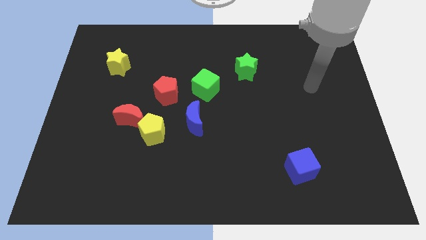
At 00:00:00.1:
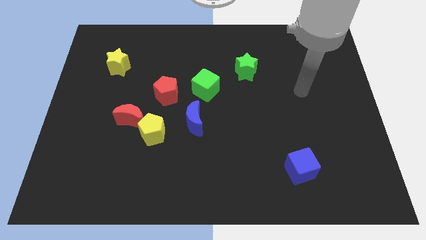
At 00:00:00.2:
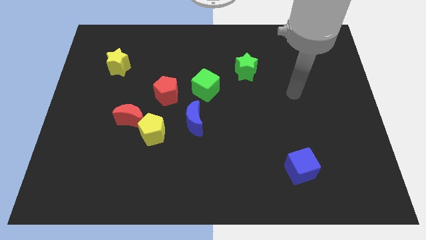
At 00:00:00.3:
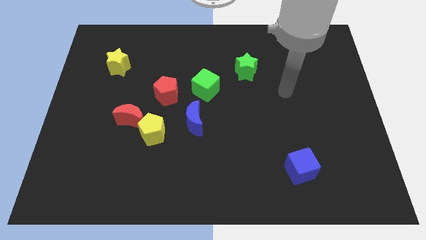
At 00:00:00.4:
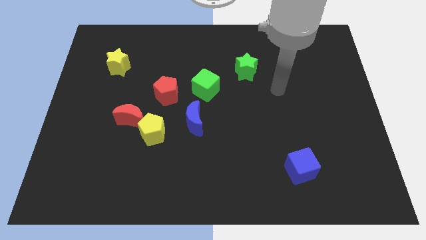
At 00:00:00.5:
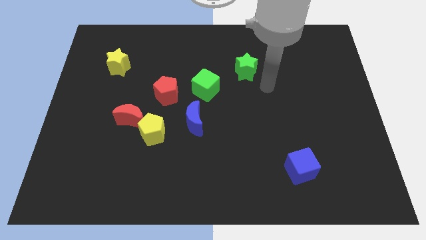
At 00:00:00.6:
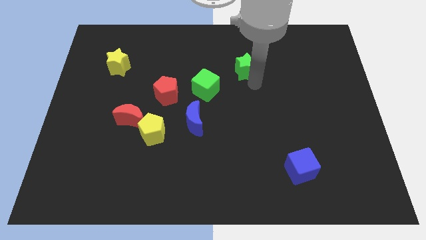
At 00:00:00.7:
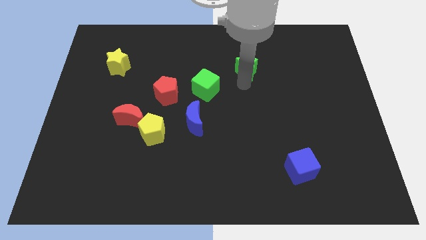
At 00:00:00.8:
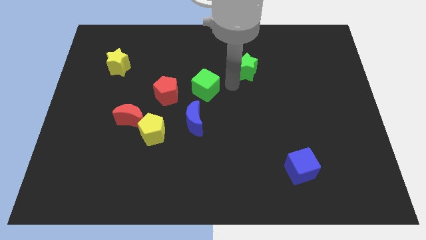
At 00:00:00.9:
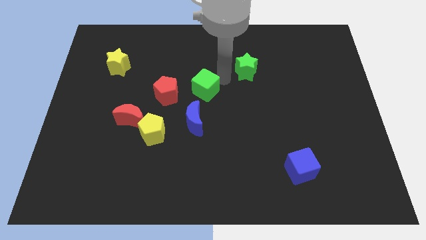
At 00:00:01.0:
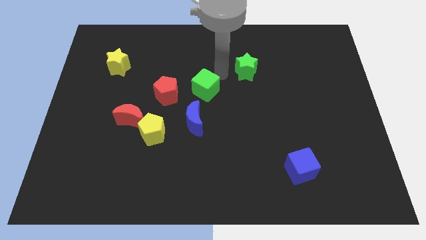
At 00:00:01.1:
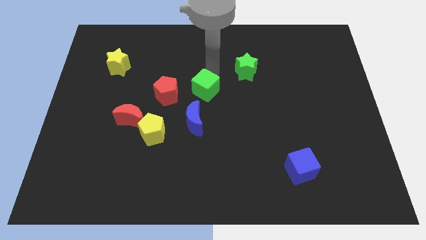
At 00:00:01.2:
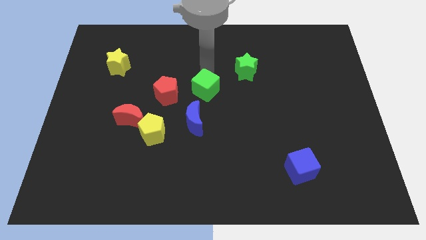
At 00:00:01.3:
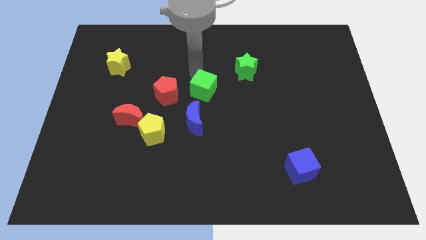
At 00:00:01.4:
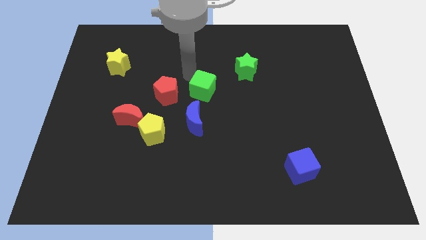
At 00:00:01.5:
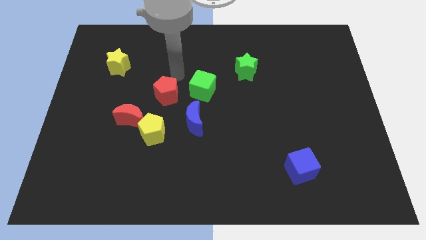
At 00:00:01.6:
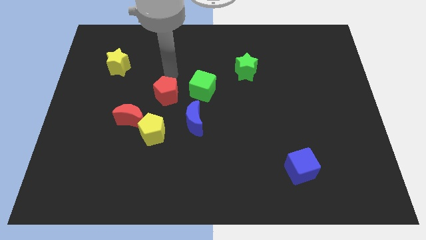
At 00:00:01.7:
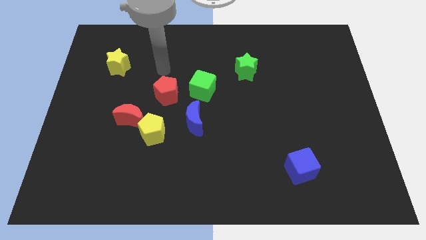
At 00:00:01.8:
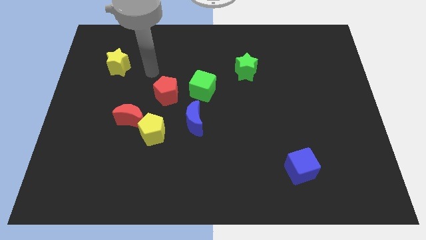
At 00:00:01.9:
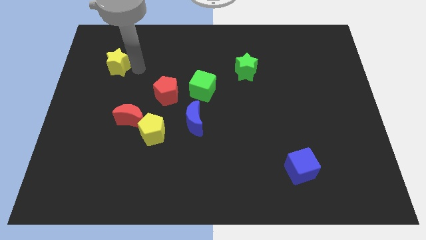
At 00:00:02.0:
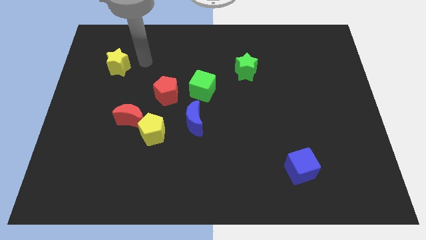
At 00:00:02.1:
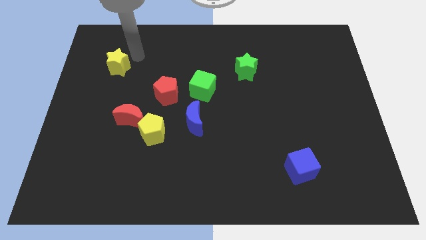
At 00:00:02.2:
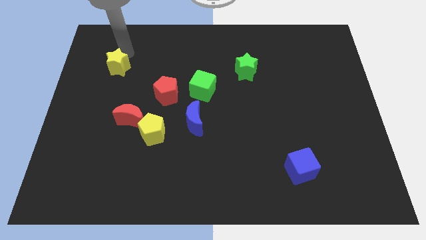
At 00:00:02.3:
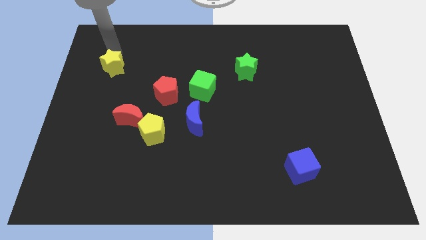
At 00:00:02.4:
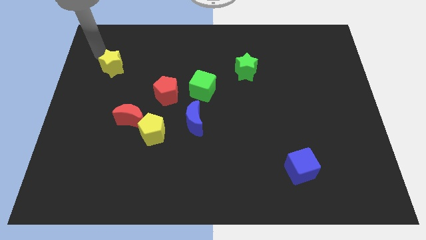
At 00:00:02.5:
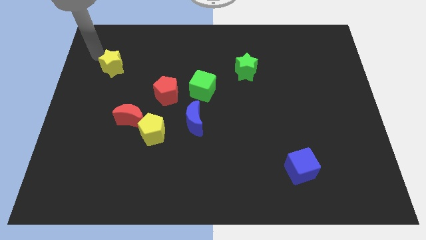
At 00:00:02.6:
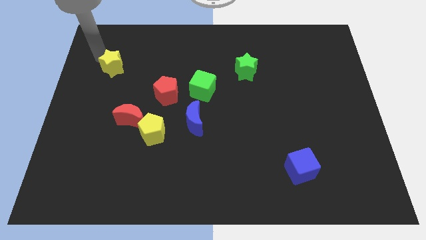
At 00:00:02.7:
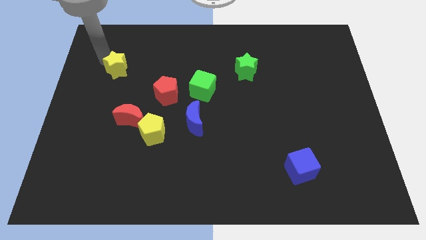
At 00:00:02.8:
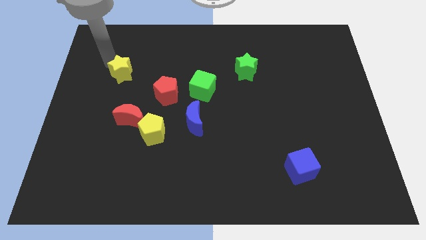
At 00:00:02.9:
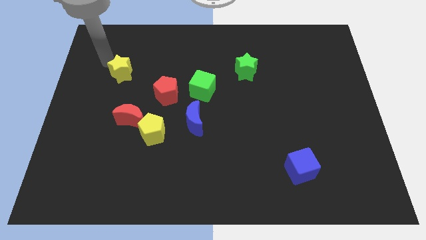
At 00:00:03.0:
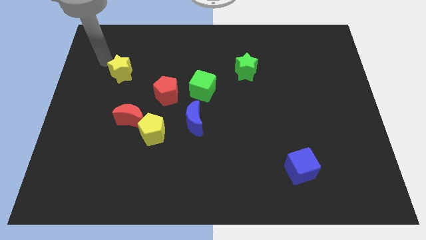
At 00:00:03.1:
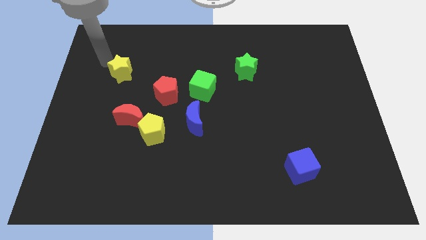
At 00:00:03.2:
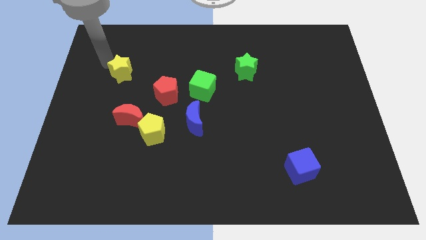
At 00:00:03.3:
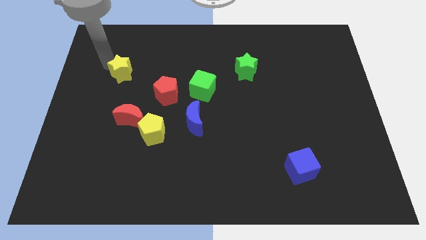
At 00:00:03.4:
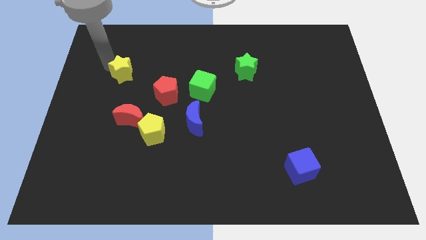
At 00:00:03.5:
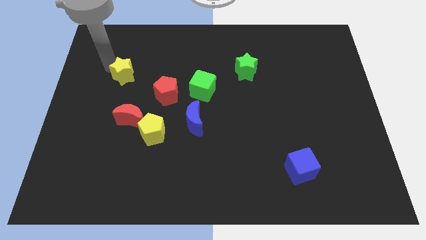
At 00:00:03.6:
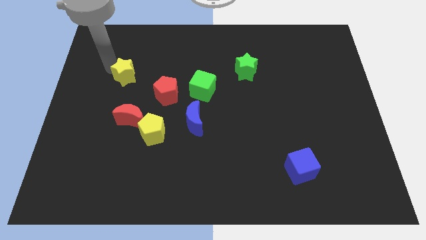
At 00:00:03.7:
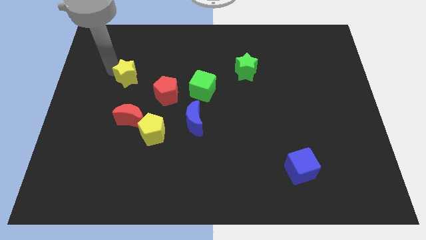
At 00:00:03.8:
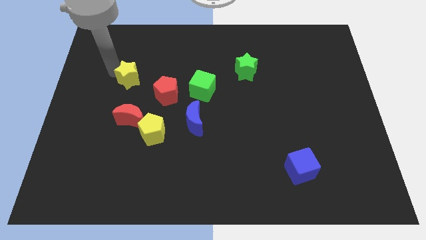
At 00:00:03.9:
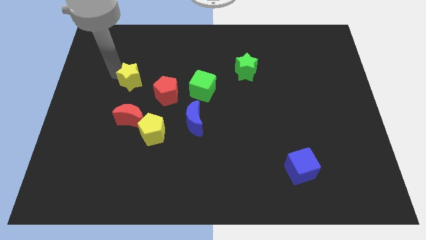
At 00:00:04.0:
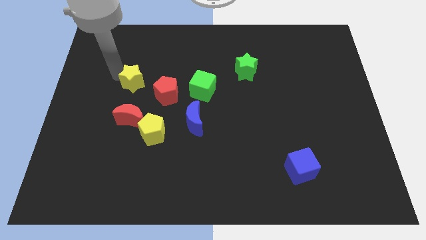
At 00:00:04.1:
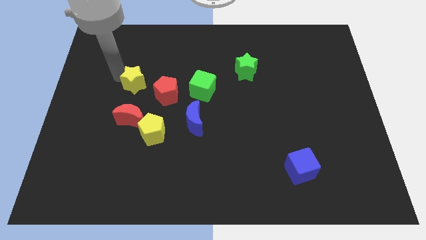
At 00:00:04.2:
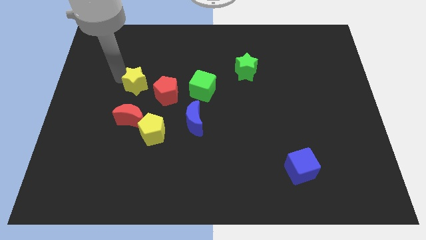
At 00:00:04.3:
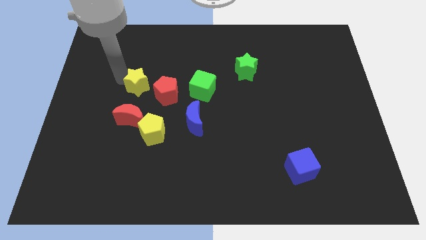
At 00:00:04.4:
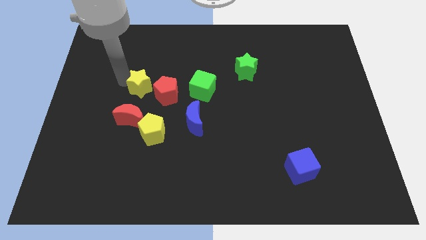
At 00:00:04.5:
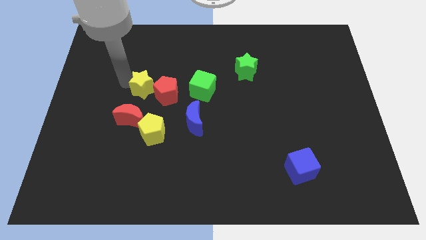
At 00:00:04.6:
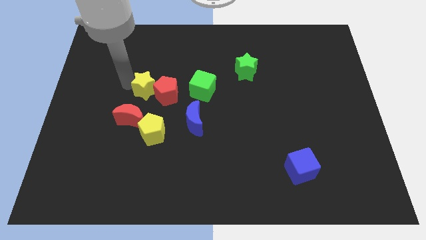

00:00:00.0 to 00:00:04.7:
move the yellow star next to the red pentagon

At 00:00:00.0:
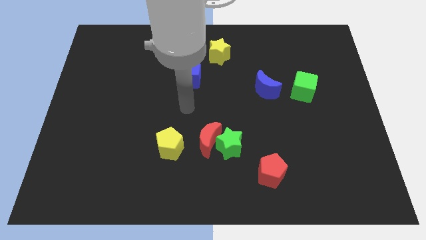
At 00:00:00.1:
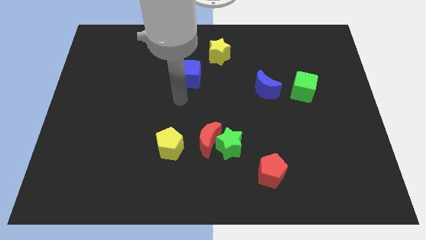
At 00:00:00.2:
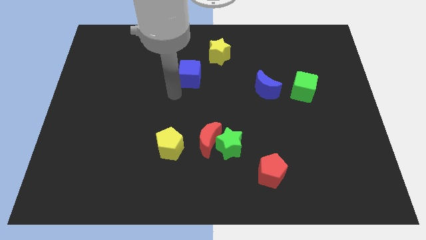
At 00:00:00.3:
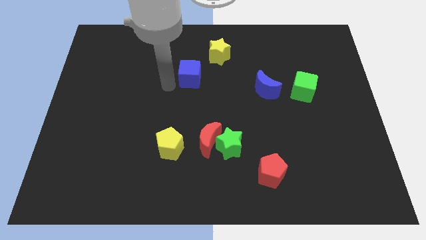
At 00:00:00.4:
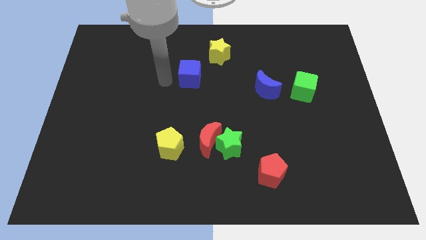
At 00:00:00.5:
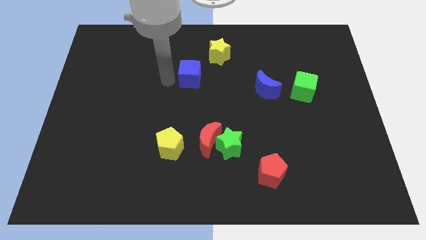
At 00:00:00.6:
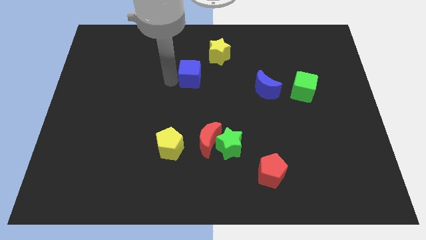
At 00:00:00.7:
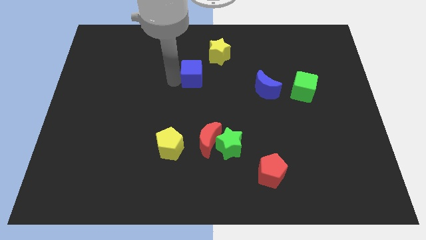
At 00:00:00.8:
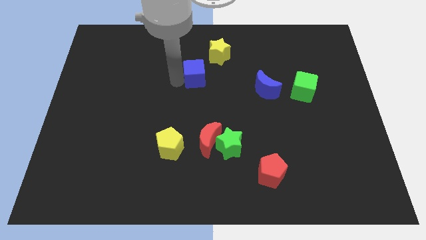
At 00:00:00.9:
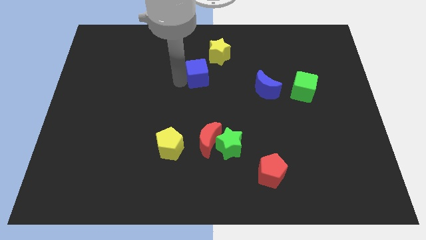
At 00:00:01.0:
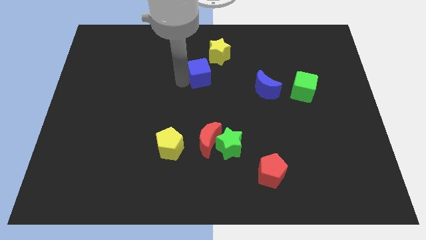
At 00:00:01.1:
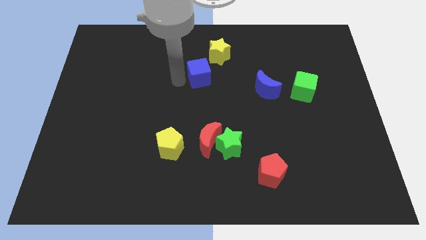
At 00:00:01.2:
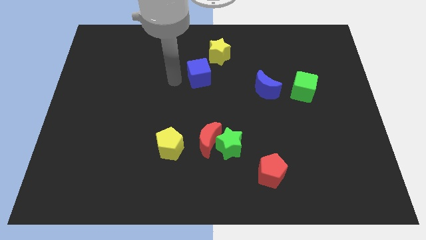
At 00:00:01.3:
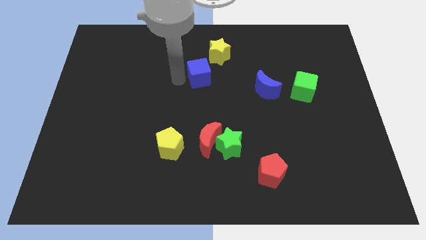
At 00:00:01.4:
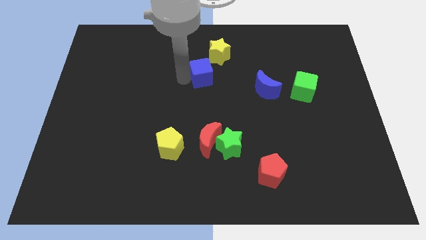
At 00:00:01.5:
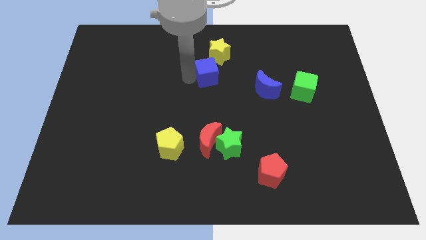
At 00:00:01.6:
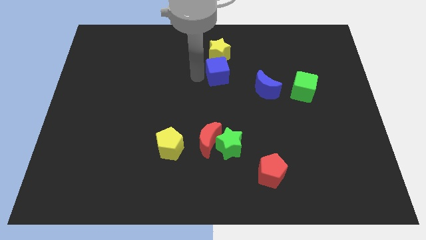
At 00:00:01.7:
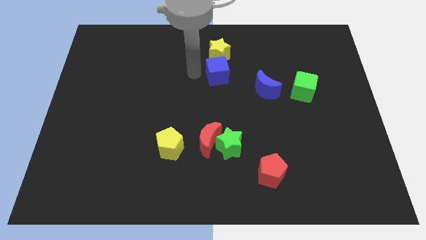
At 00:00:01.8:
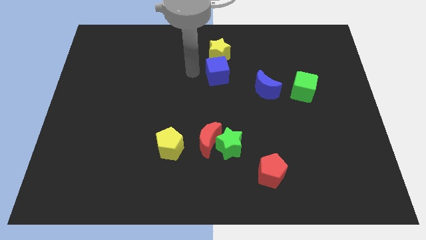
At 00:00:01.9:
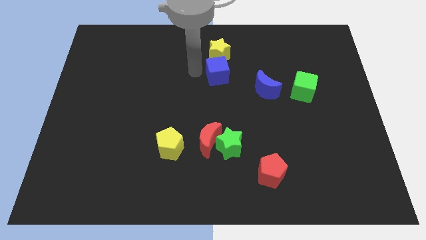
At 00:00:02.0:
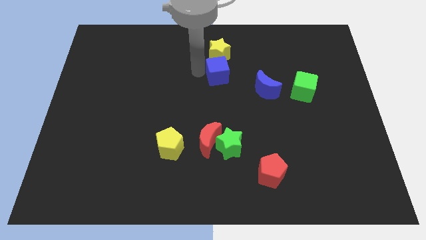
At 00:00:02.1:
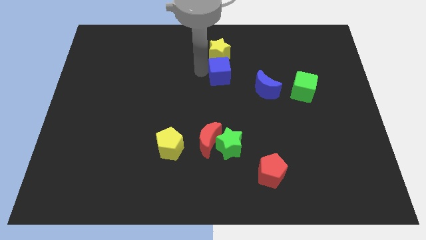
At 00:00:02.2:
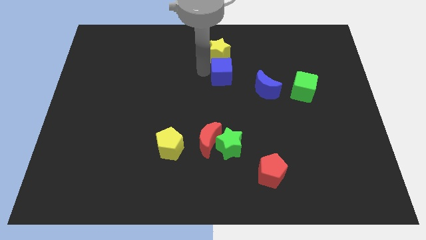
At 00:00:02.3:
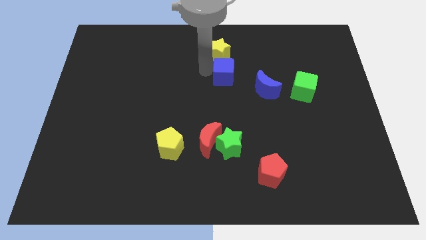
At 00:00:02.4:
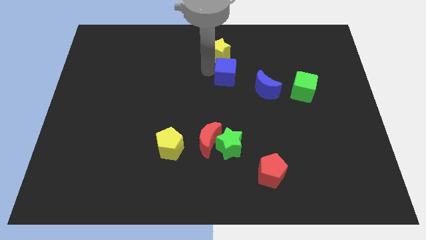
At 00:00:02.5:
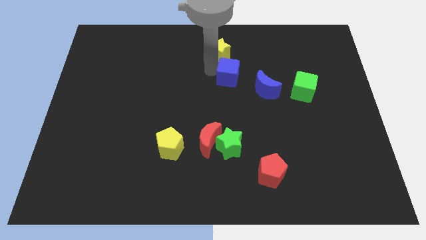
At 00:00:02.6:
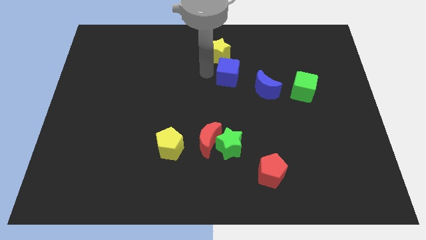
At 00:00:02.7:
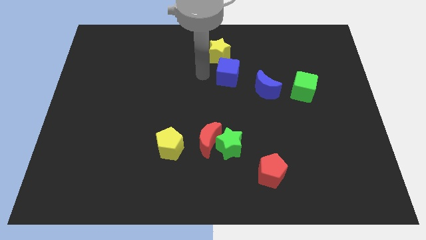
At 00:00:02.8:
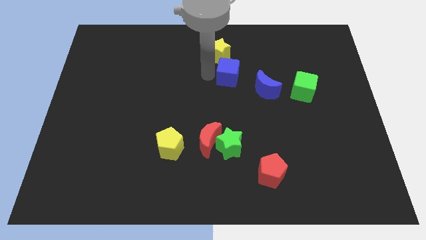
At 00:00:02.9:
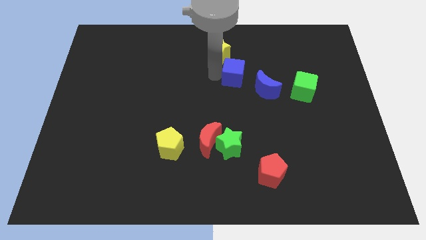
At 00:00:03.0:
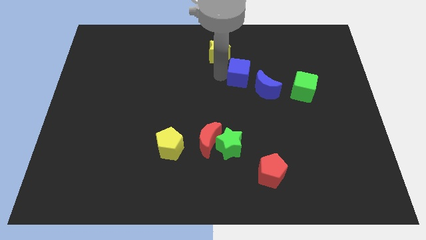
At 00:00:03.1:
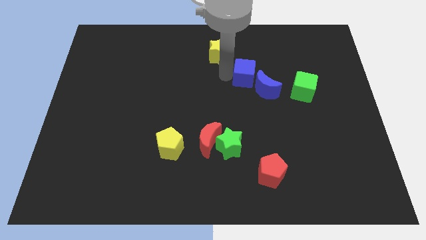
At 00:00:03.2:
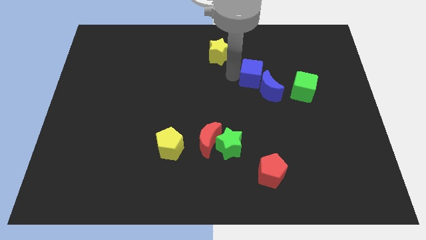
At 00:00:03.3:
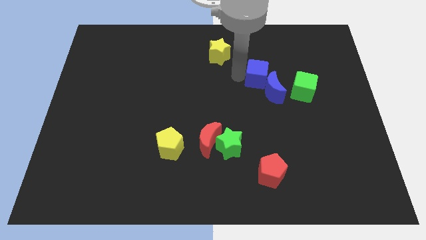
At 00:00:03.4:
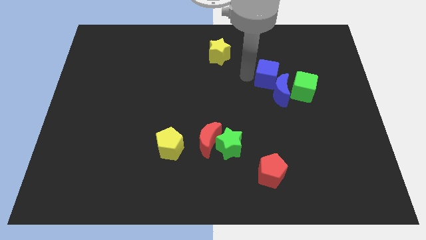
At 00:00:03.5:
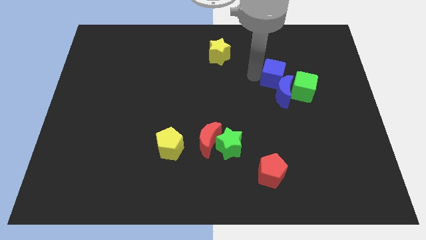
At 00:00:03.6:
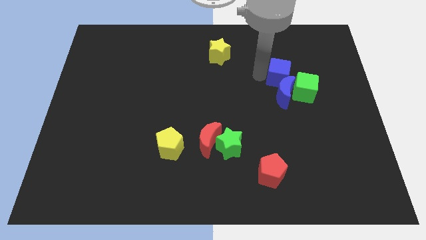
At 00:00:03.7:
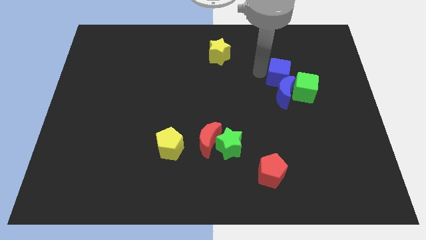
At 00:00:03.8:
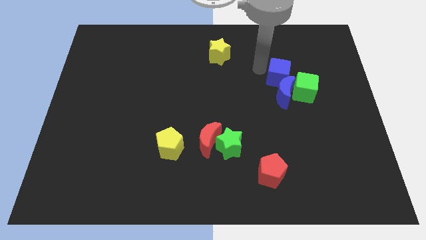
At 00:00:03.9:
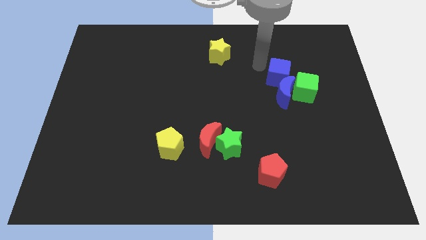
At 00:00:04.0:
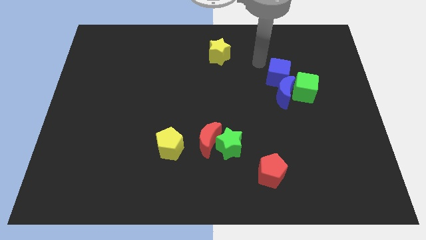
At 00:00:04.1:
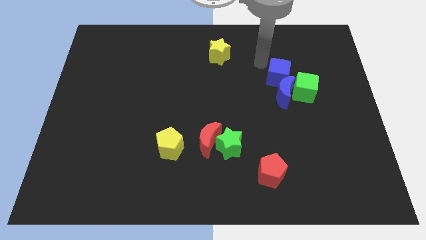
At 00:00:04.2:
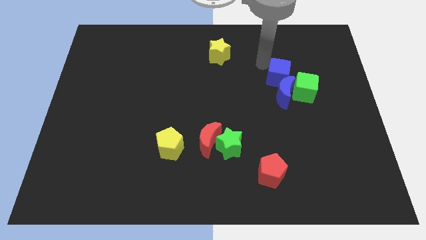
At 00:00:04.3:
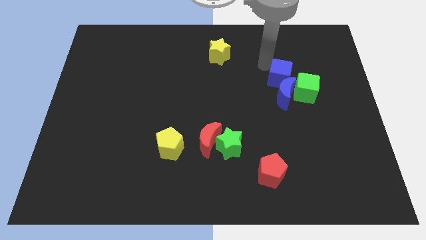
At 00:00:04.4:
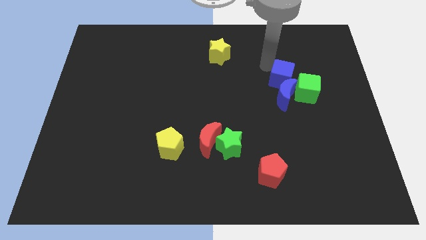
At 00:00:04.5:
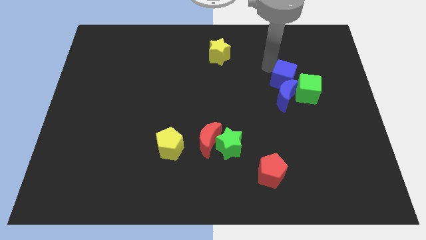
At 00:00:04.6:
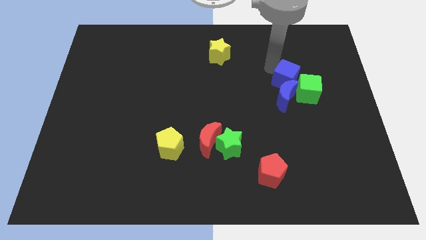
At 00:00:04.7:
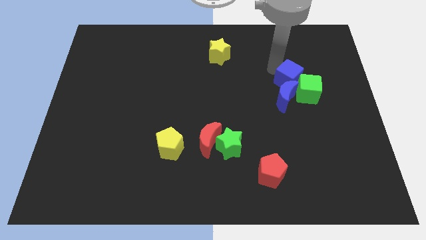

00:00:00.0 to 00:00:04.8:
put the blue cube close to the green cube
